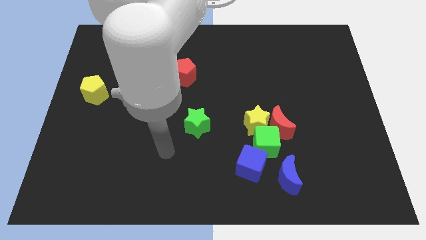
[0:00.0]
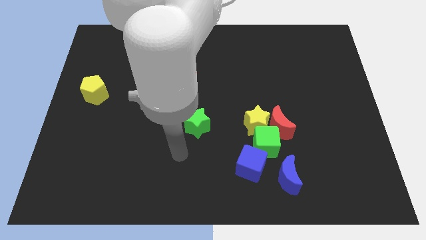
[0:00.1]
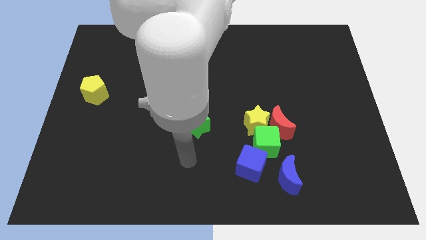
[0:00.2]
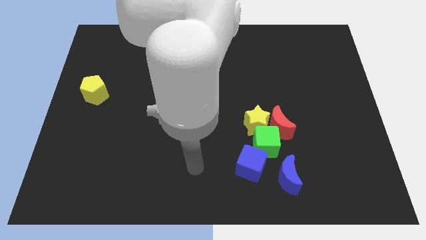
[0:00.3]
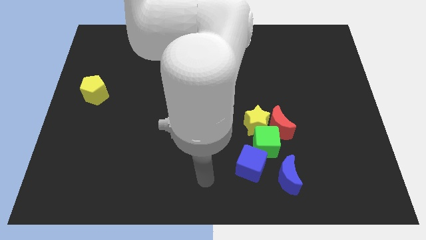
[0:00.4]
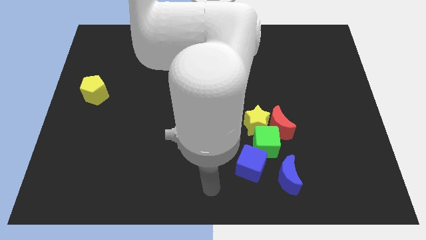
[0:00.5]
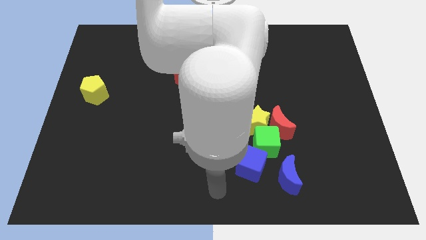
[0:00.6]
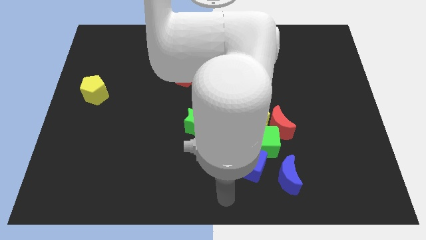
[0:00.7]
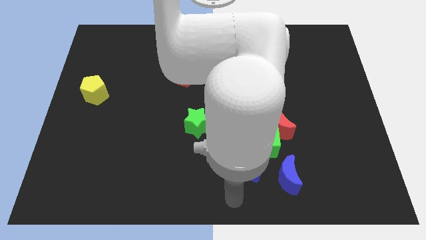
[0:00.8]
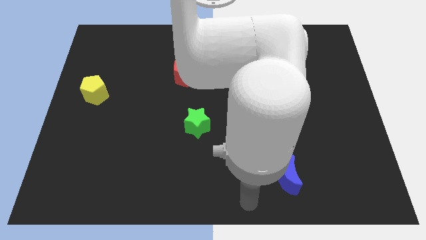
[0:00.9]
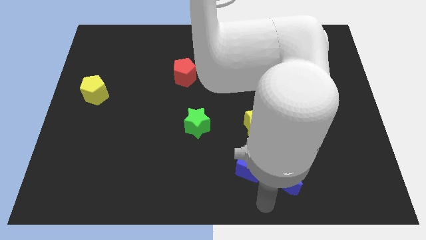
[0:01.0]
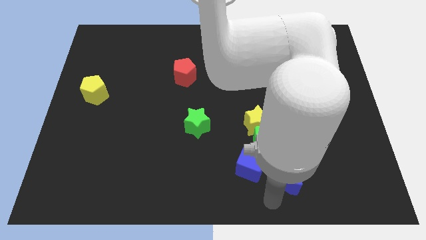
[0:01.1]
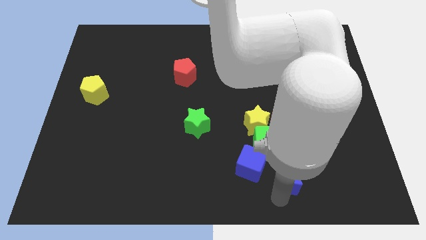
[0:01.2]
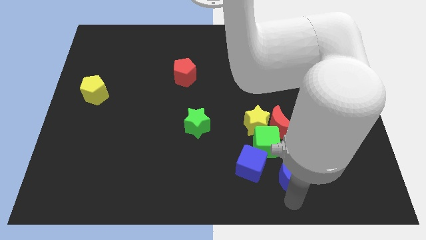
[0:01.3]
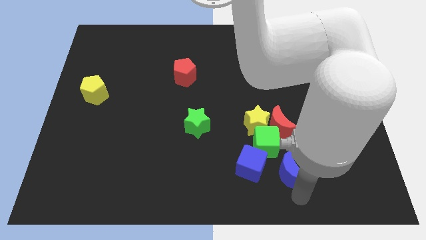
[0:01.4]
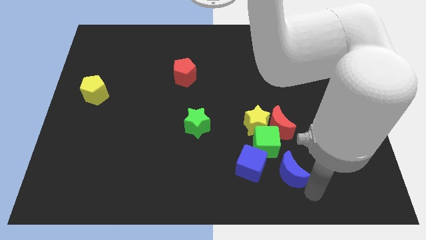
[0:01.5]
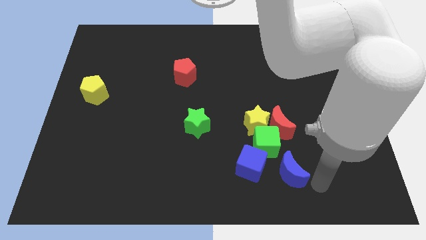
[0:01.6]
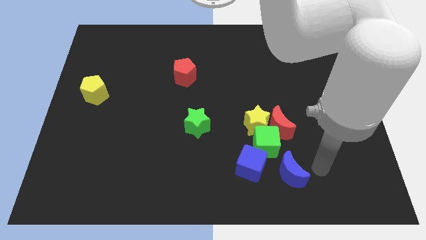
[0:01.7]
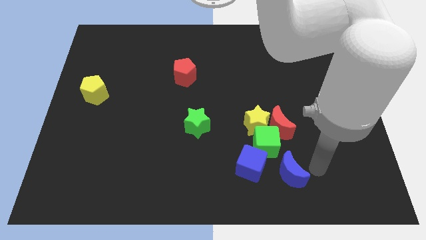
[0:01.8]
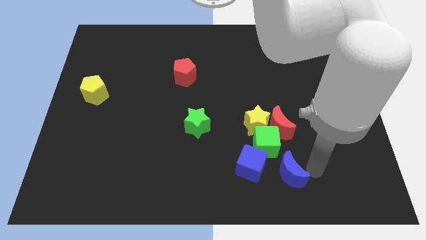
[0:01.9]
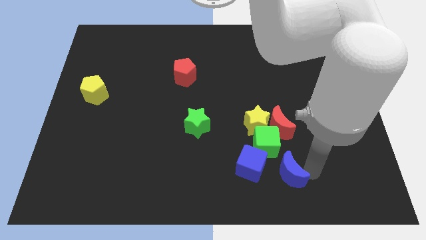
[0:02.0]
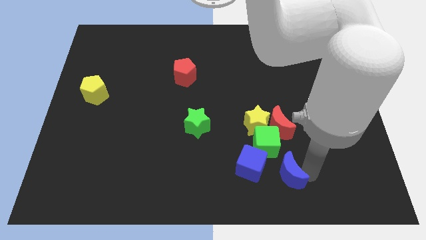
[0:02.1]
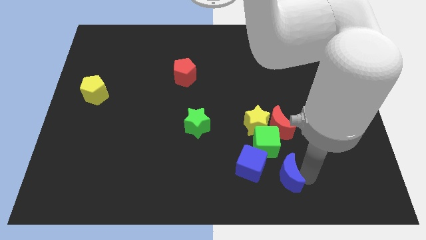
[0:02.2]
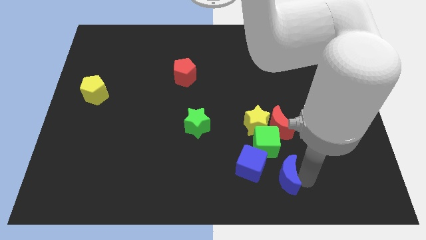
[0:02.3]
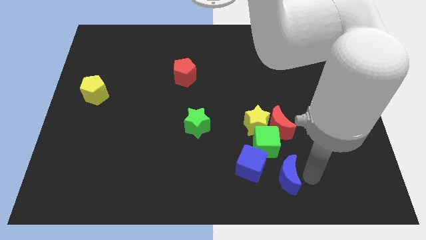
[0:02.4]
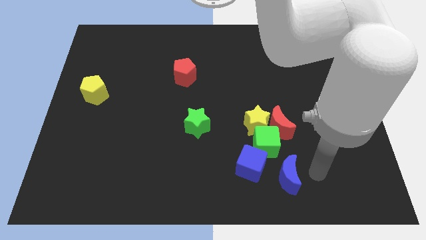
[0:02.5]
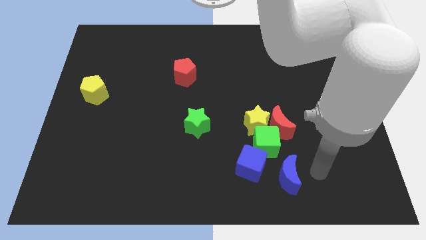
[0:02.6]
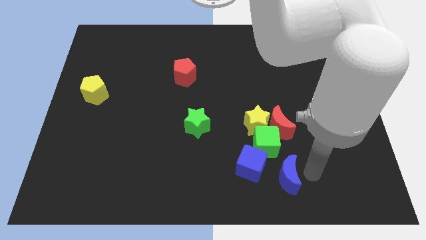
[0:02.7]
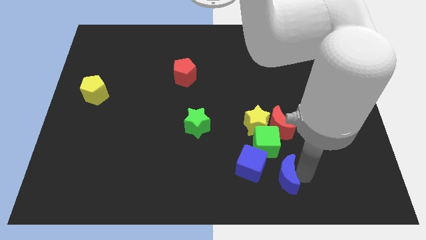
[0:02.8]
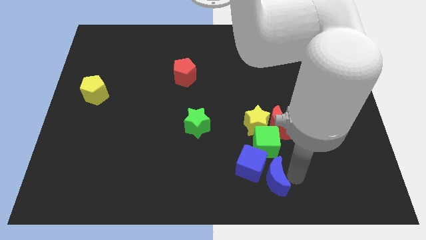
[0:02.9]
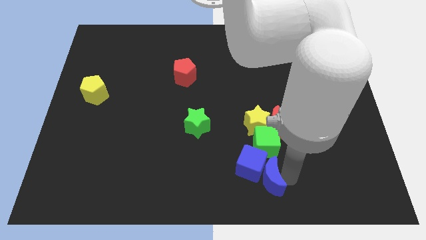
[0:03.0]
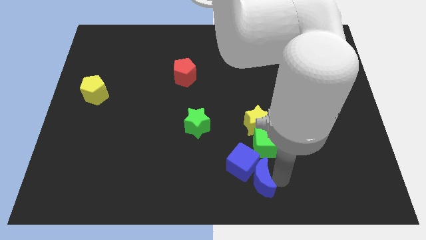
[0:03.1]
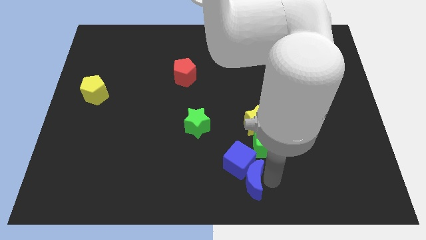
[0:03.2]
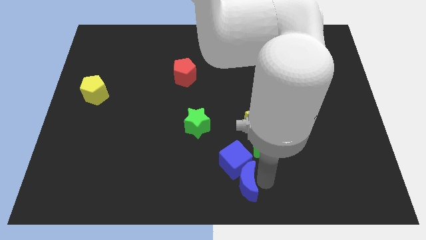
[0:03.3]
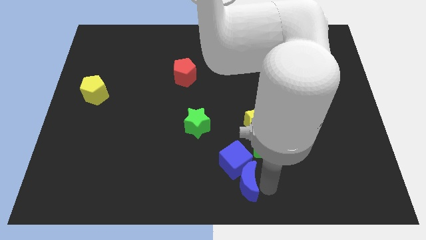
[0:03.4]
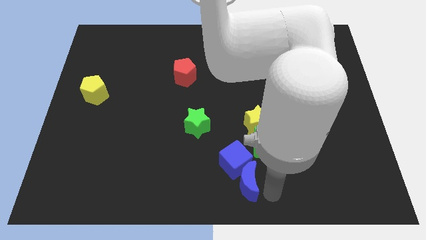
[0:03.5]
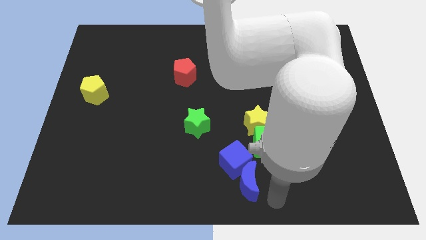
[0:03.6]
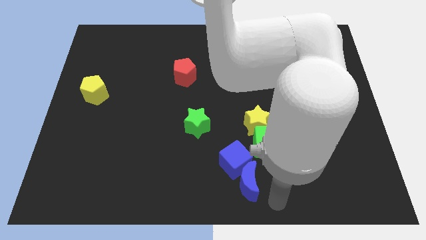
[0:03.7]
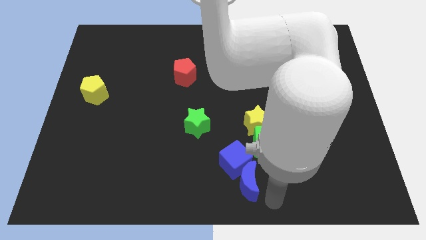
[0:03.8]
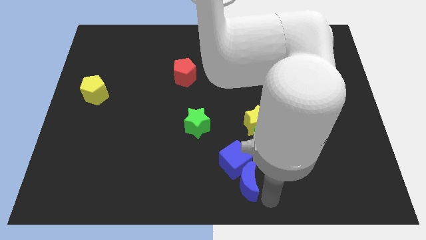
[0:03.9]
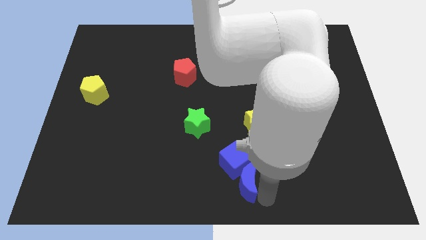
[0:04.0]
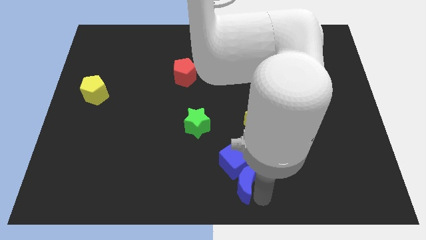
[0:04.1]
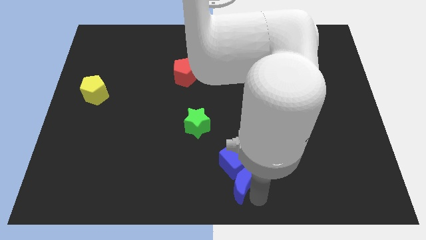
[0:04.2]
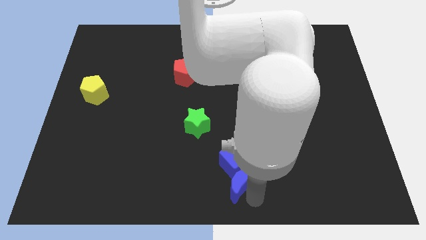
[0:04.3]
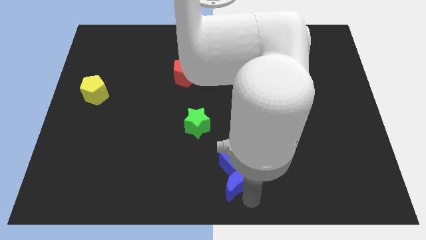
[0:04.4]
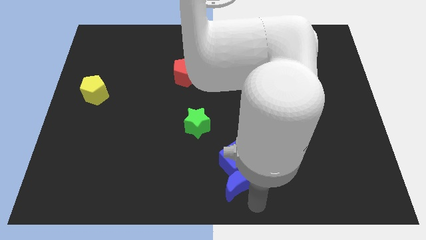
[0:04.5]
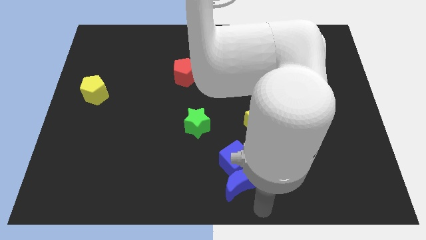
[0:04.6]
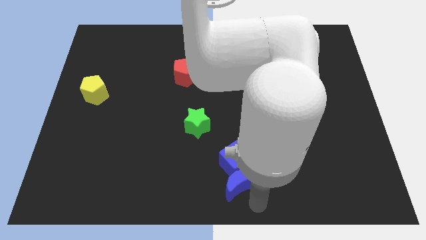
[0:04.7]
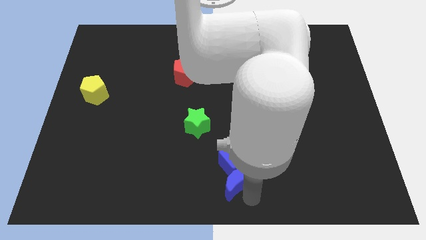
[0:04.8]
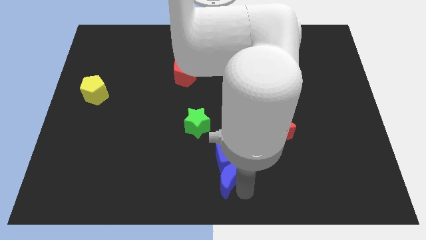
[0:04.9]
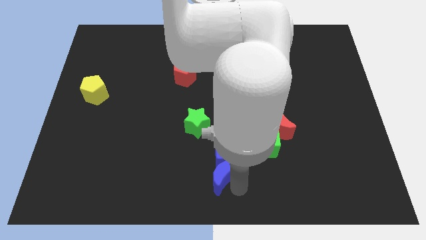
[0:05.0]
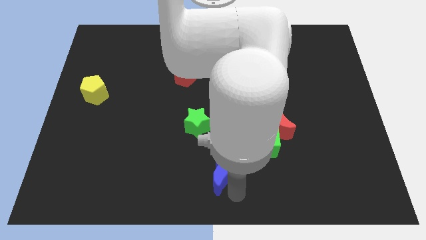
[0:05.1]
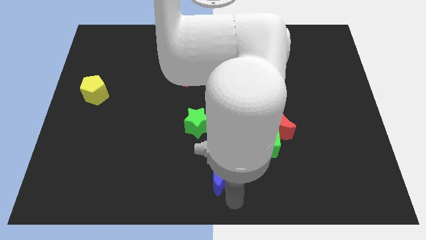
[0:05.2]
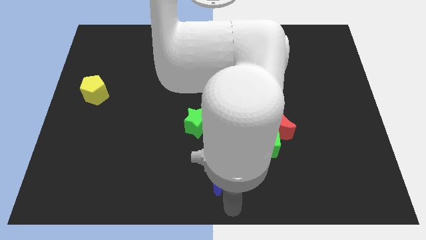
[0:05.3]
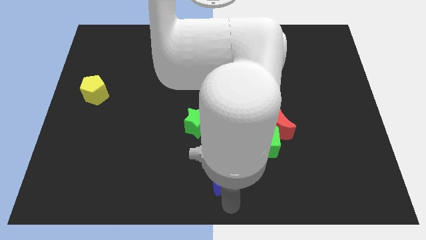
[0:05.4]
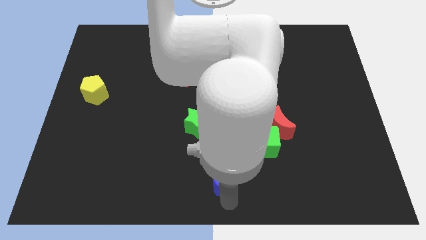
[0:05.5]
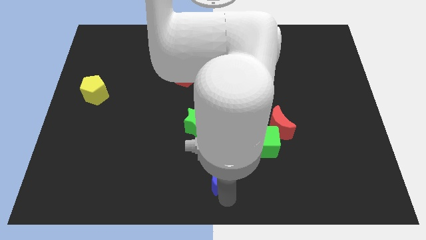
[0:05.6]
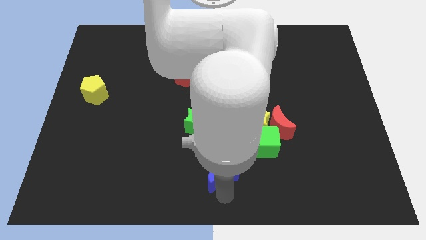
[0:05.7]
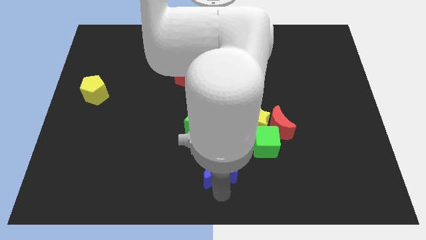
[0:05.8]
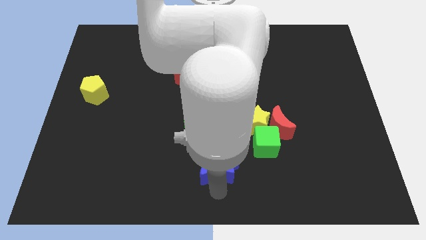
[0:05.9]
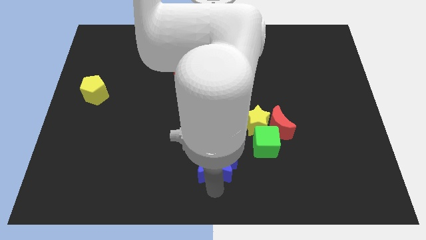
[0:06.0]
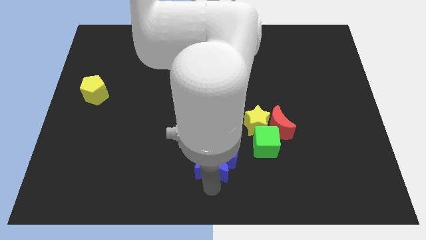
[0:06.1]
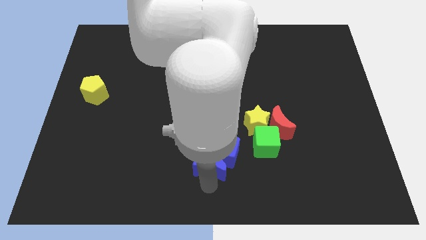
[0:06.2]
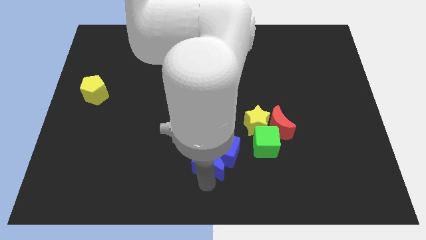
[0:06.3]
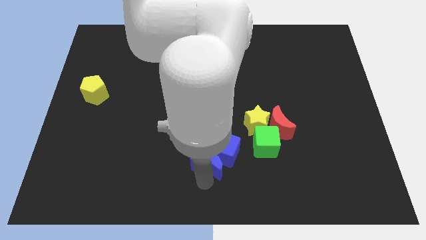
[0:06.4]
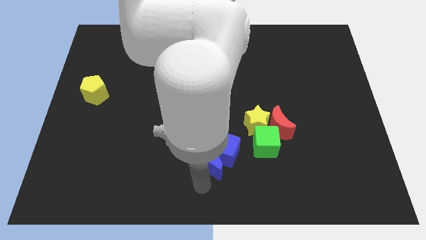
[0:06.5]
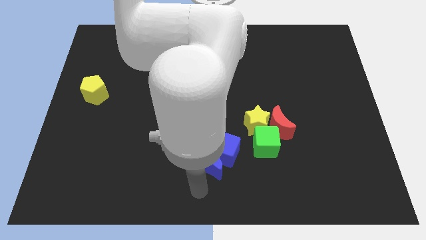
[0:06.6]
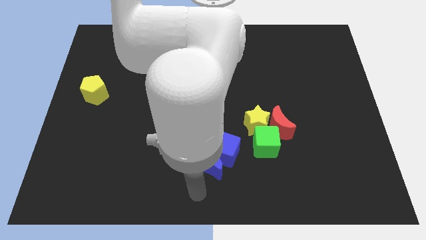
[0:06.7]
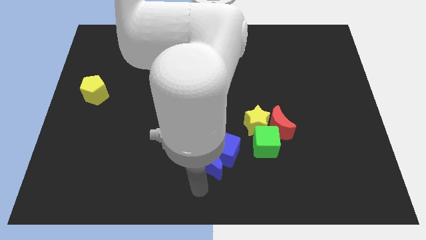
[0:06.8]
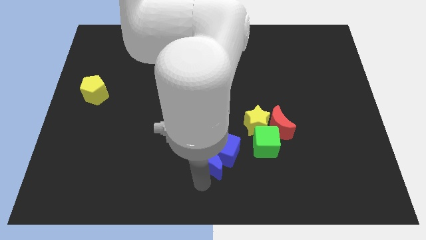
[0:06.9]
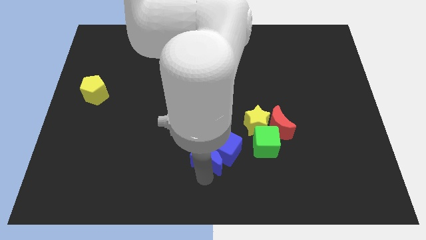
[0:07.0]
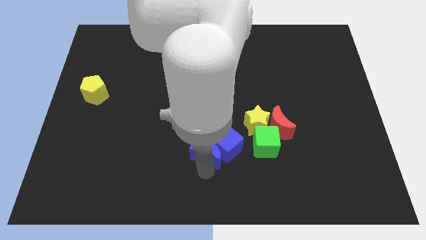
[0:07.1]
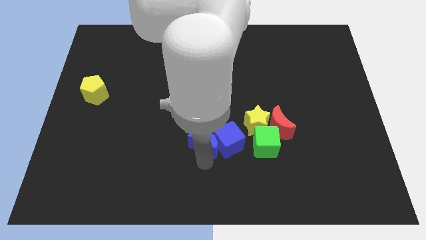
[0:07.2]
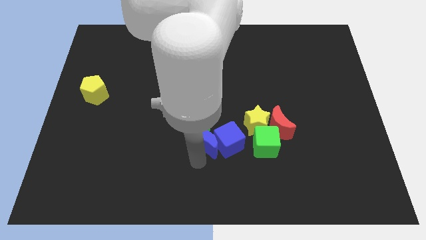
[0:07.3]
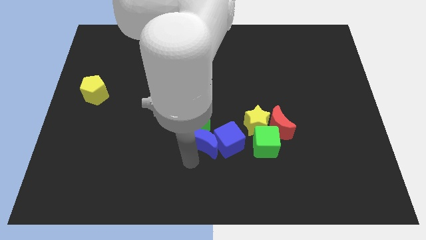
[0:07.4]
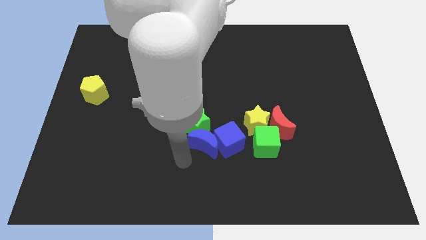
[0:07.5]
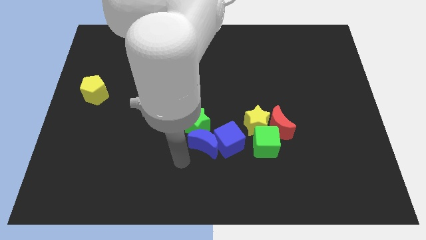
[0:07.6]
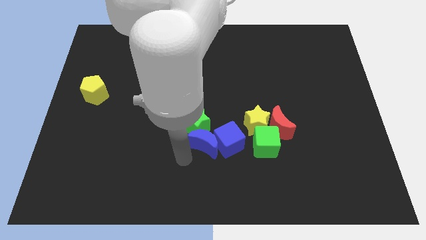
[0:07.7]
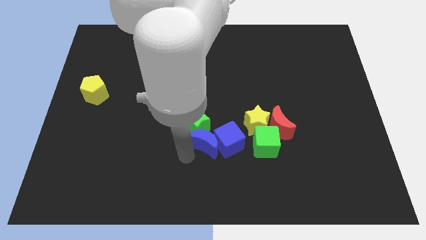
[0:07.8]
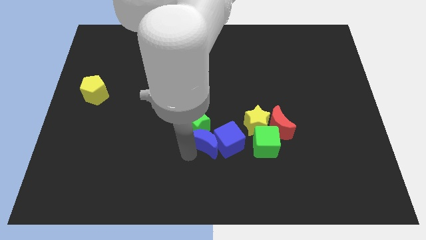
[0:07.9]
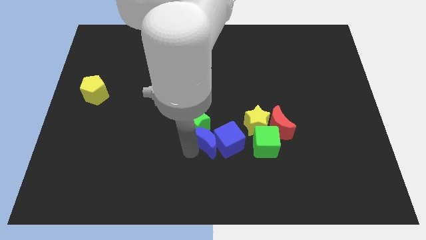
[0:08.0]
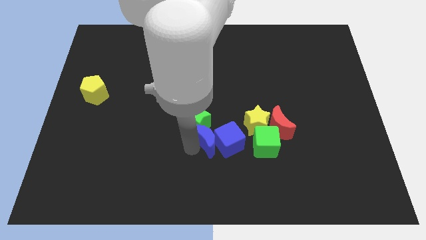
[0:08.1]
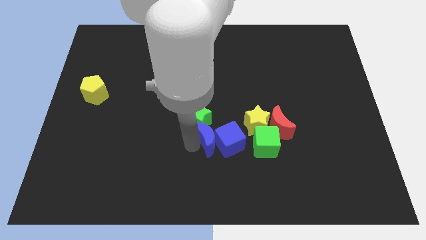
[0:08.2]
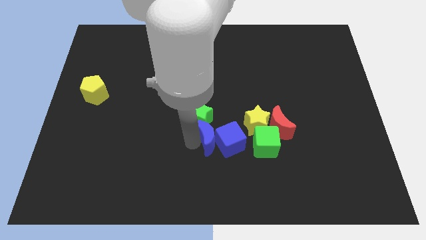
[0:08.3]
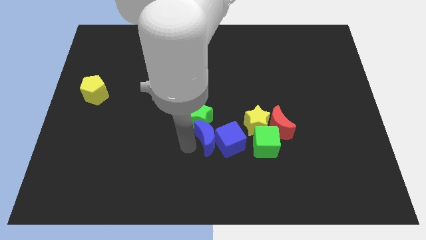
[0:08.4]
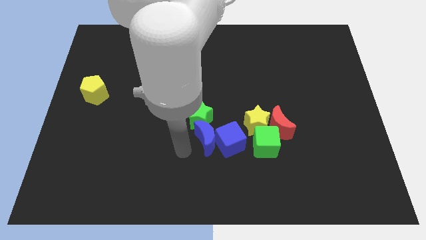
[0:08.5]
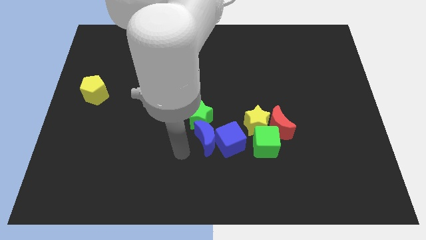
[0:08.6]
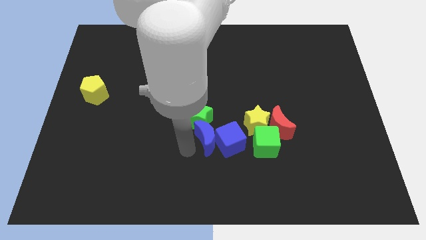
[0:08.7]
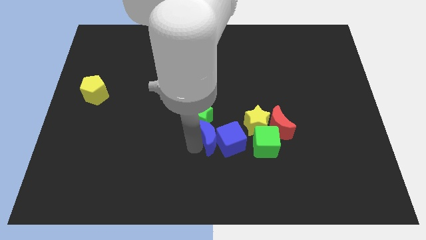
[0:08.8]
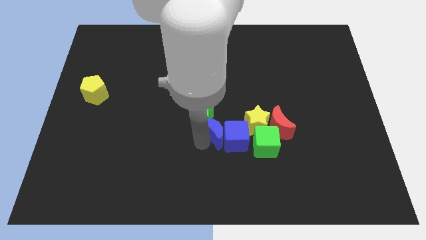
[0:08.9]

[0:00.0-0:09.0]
put the blue moon just left of the red moon
